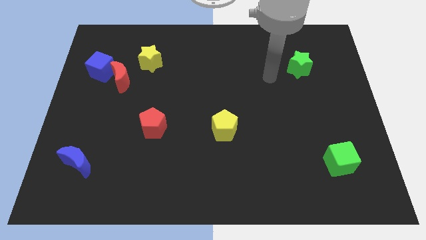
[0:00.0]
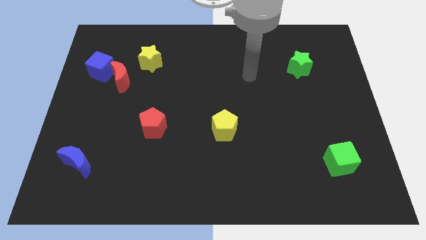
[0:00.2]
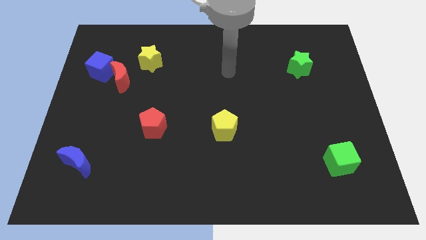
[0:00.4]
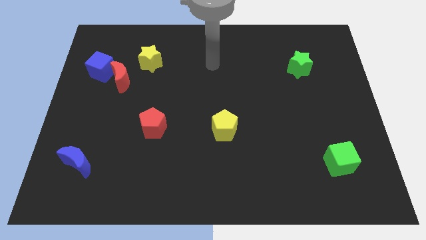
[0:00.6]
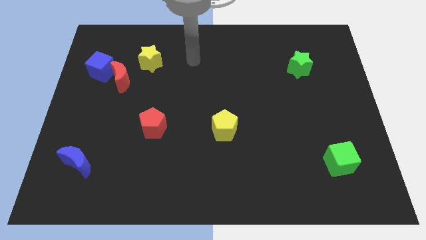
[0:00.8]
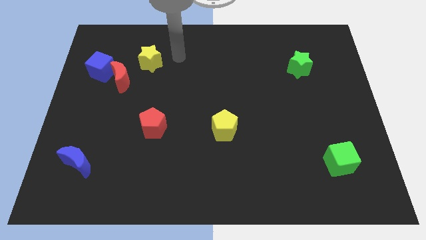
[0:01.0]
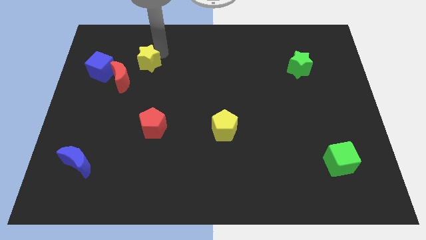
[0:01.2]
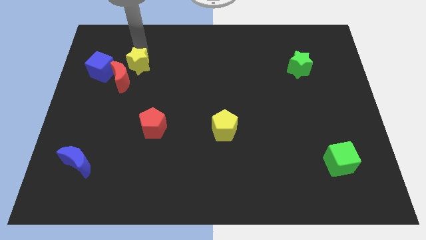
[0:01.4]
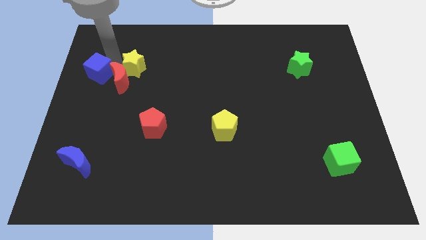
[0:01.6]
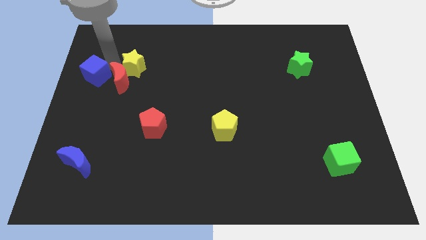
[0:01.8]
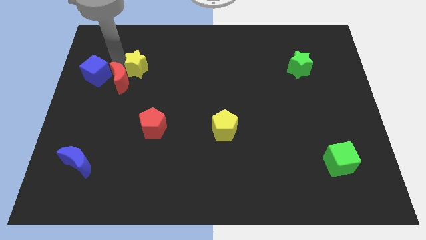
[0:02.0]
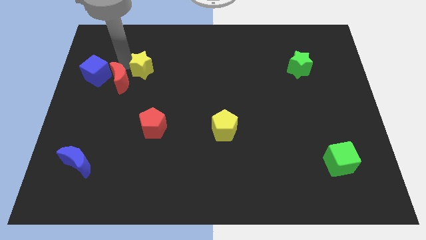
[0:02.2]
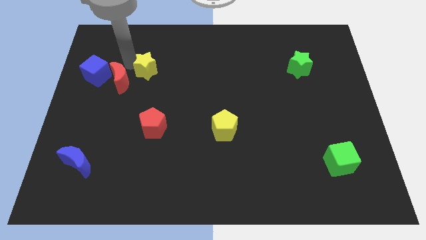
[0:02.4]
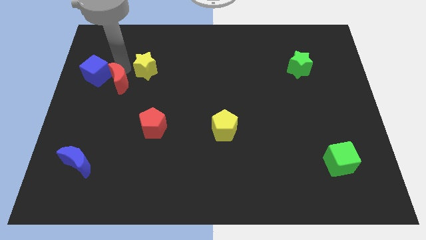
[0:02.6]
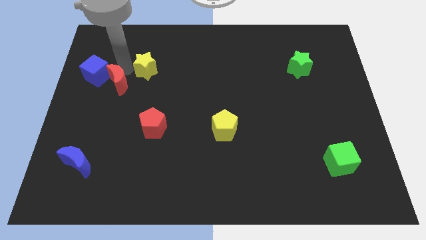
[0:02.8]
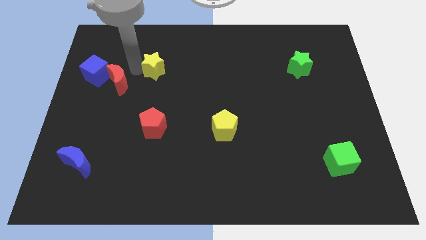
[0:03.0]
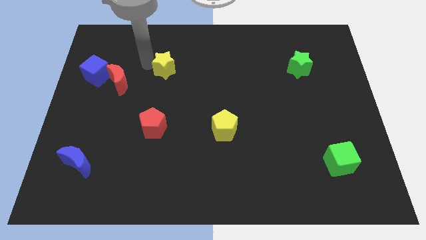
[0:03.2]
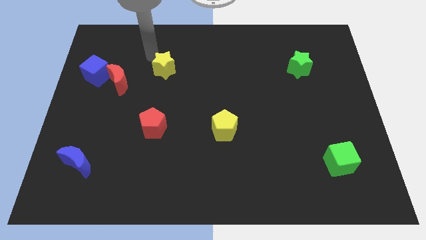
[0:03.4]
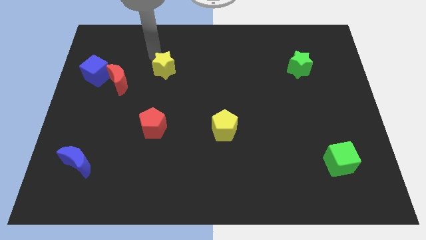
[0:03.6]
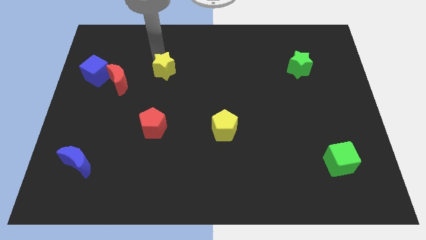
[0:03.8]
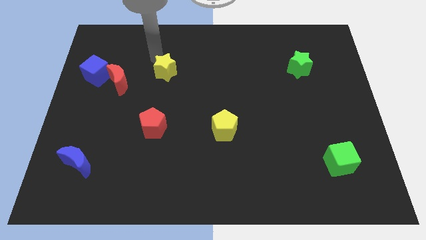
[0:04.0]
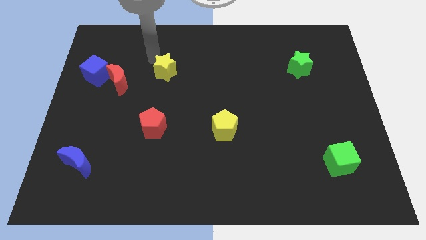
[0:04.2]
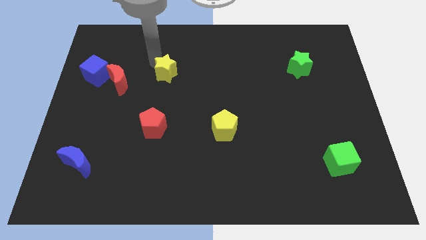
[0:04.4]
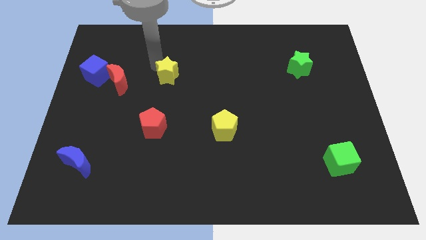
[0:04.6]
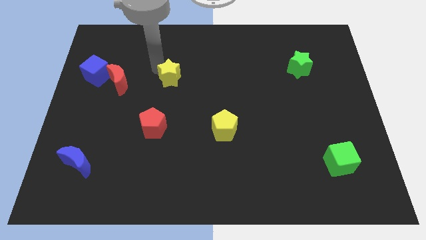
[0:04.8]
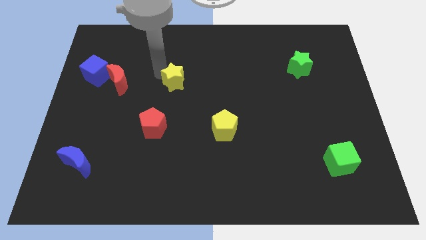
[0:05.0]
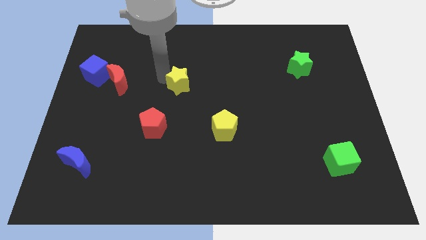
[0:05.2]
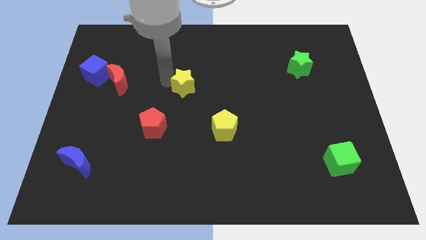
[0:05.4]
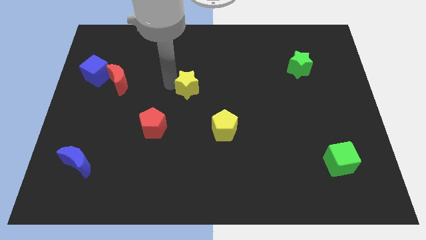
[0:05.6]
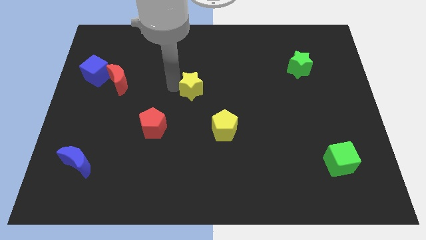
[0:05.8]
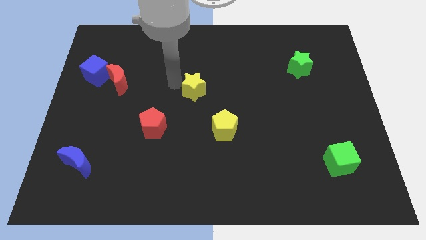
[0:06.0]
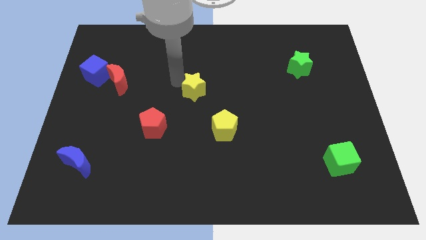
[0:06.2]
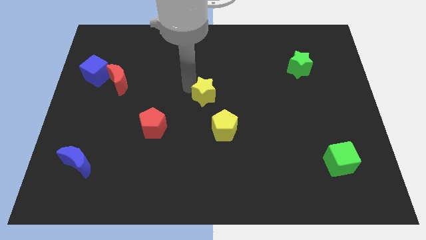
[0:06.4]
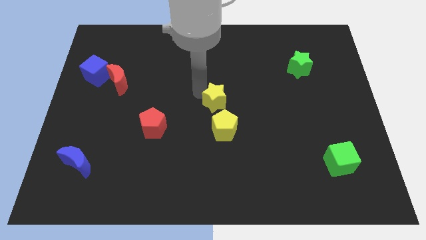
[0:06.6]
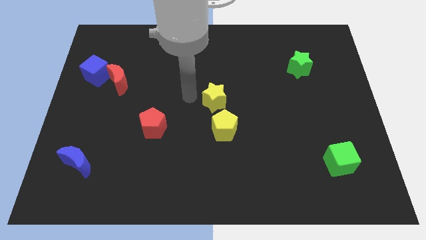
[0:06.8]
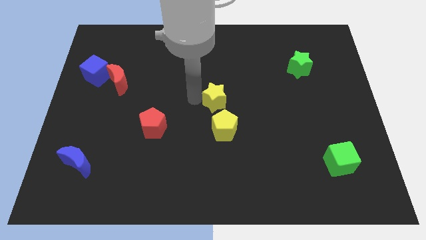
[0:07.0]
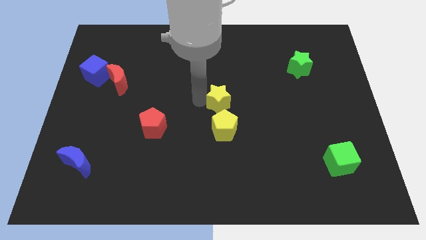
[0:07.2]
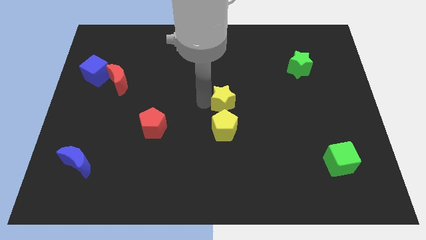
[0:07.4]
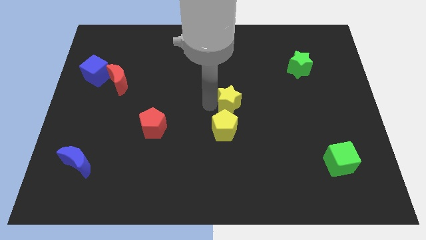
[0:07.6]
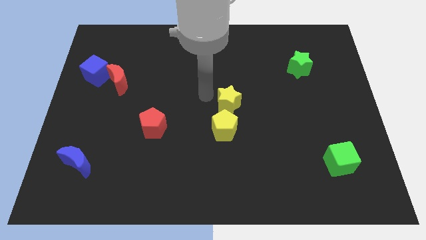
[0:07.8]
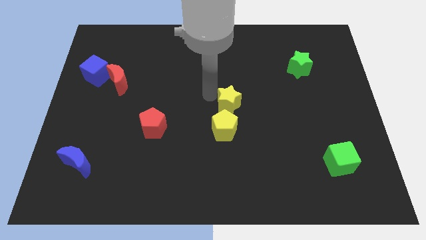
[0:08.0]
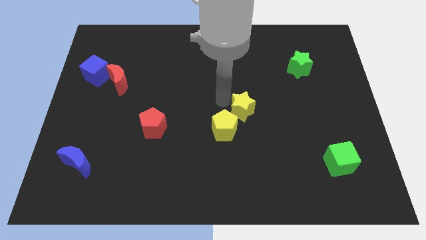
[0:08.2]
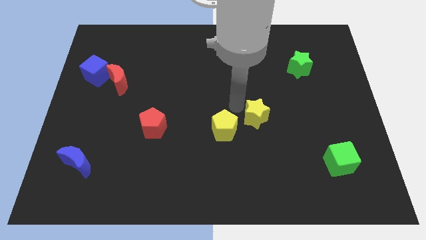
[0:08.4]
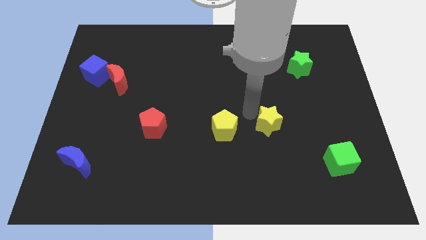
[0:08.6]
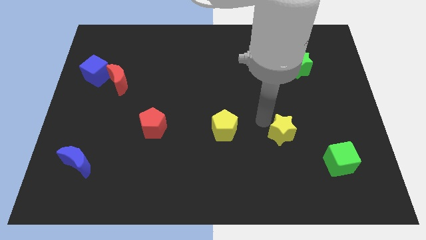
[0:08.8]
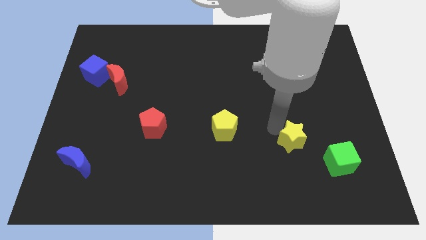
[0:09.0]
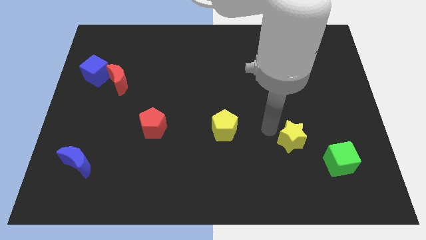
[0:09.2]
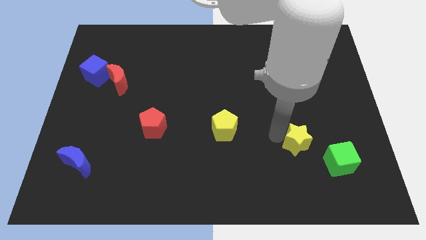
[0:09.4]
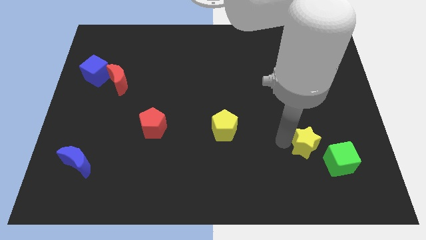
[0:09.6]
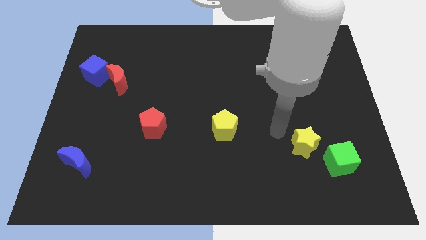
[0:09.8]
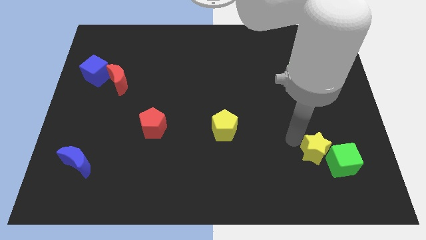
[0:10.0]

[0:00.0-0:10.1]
slide the yellow star close to the green cube

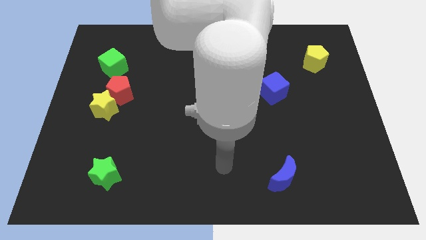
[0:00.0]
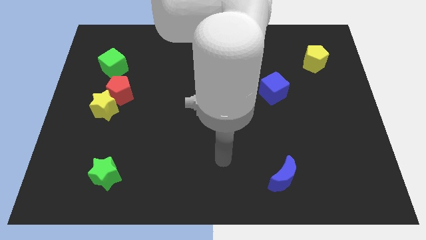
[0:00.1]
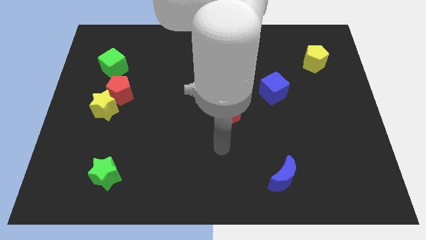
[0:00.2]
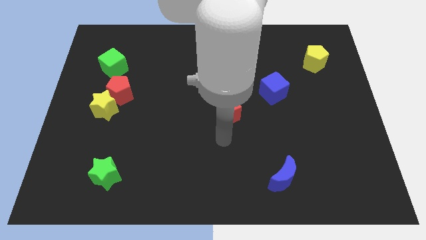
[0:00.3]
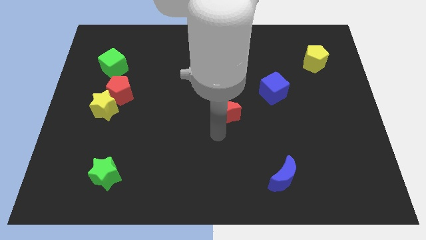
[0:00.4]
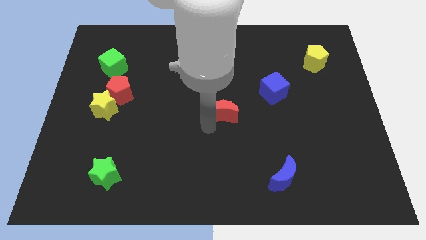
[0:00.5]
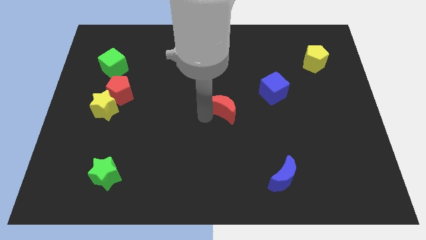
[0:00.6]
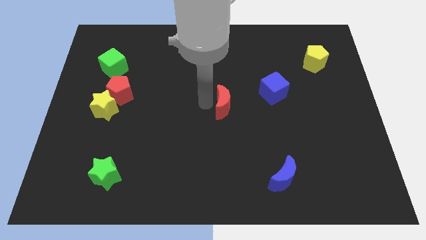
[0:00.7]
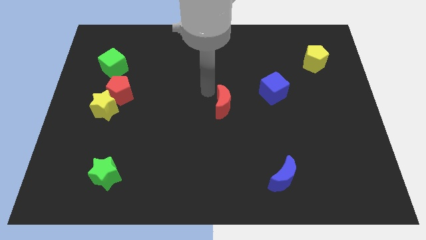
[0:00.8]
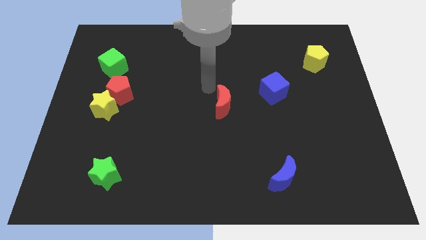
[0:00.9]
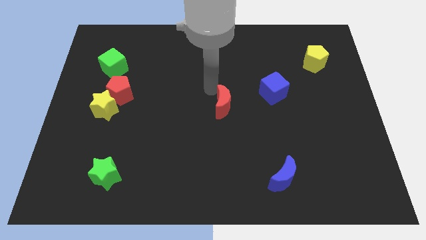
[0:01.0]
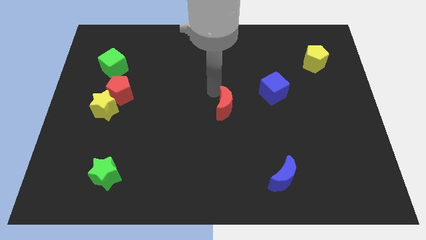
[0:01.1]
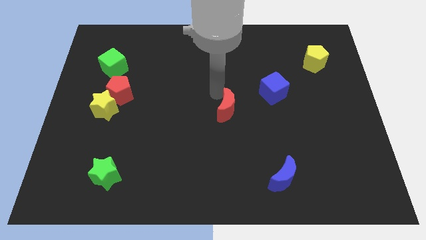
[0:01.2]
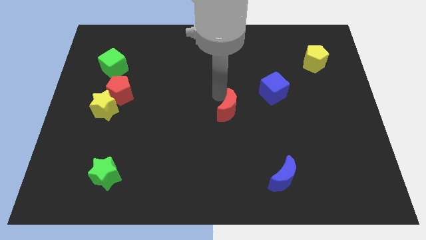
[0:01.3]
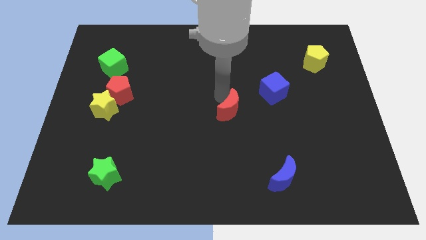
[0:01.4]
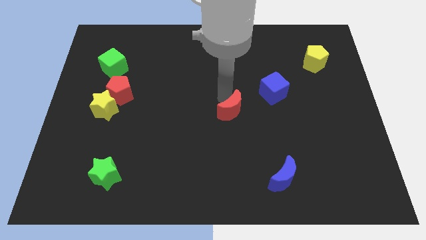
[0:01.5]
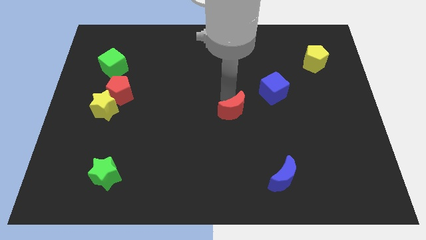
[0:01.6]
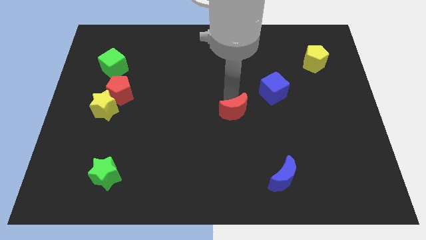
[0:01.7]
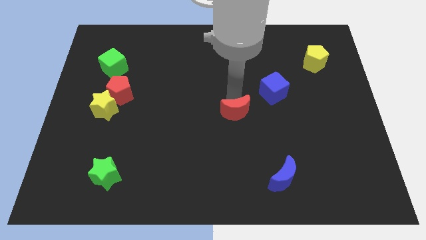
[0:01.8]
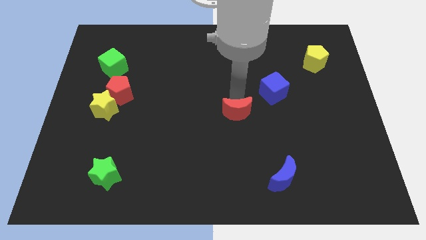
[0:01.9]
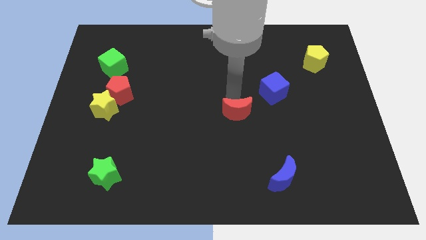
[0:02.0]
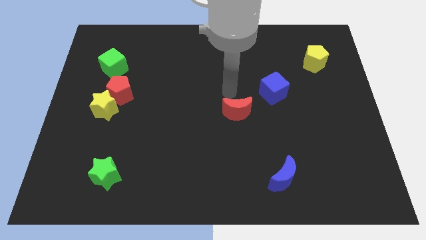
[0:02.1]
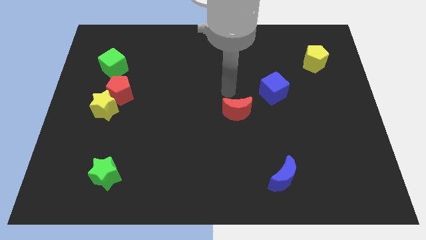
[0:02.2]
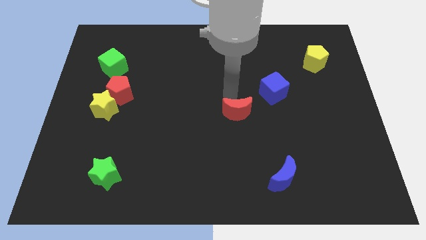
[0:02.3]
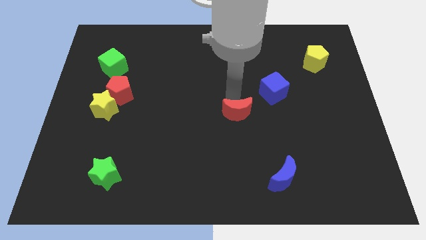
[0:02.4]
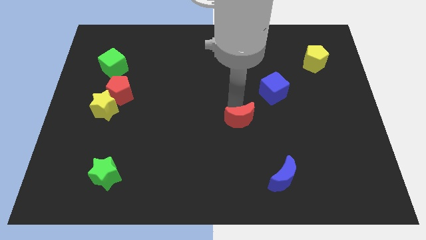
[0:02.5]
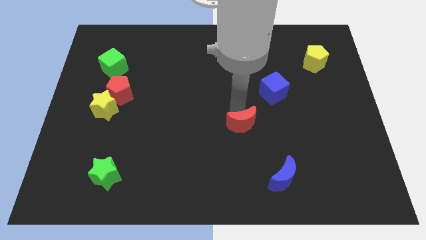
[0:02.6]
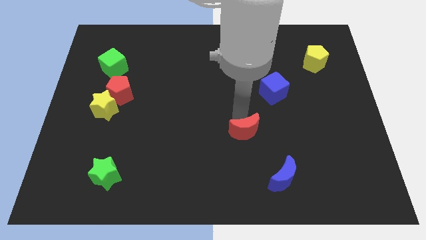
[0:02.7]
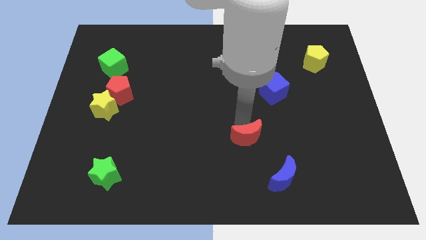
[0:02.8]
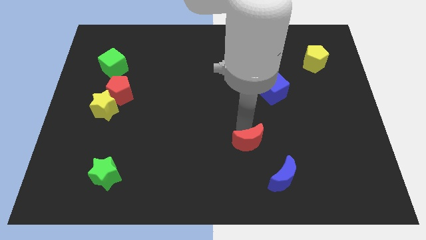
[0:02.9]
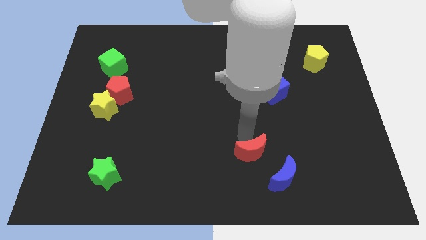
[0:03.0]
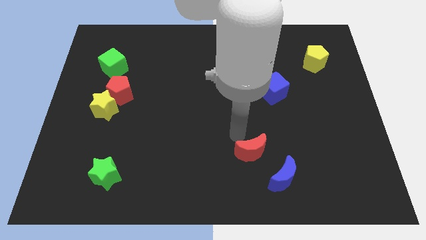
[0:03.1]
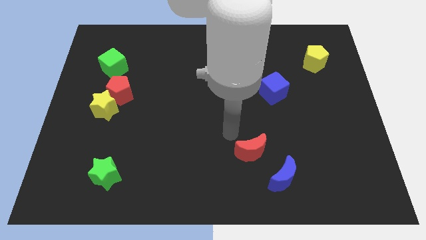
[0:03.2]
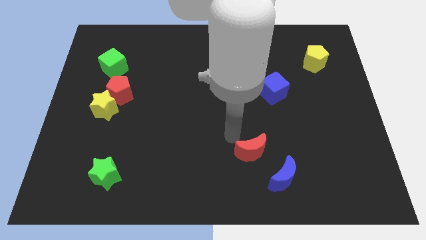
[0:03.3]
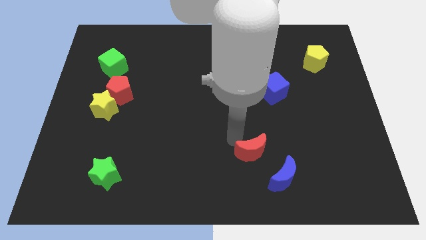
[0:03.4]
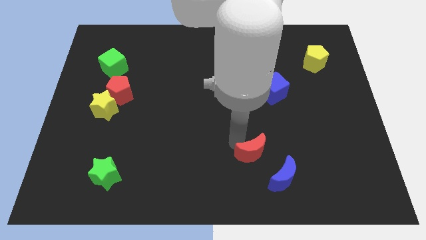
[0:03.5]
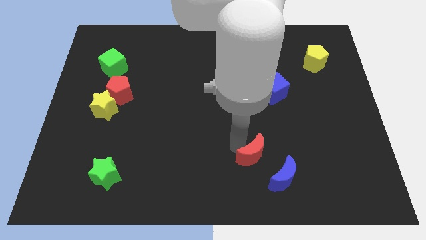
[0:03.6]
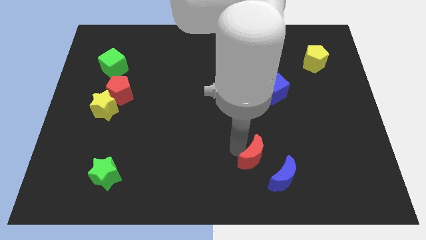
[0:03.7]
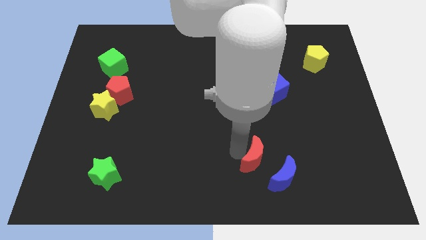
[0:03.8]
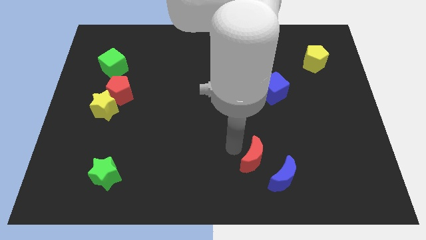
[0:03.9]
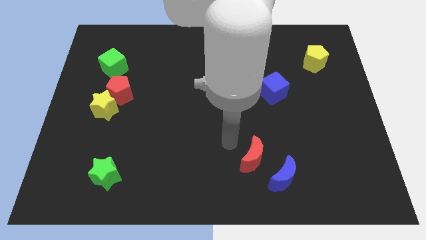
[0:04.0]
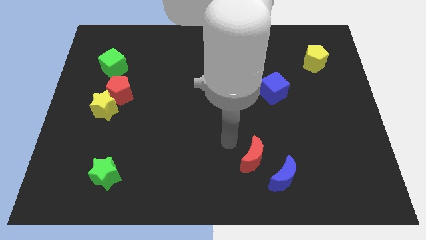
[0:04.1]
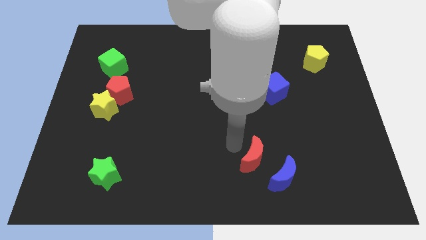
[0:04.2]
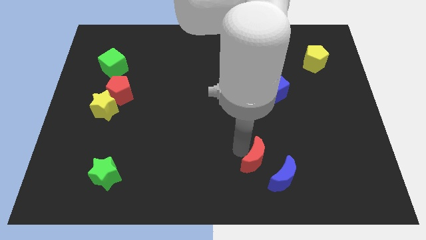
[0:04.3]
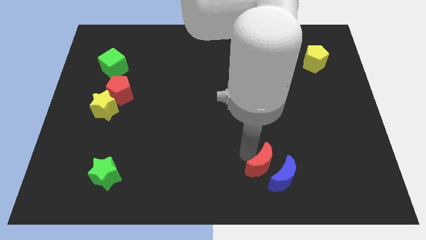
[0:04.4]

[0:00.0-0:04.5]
put the red moon to the blue moon
